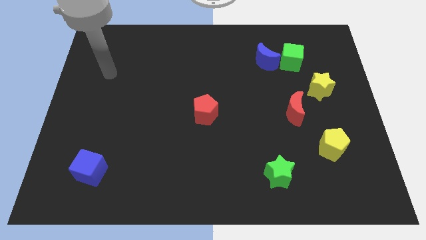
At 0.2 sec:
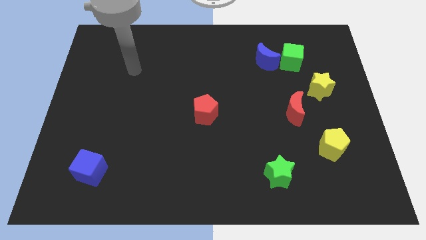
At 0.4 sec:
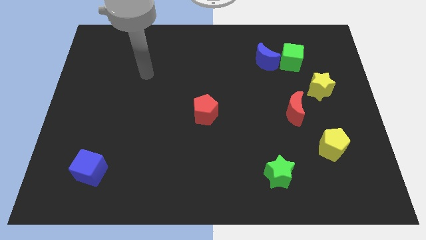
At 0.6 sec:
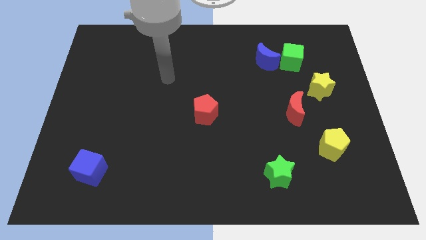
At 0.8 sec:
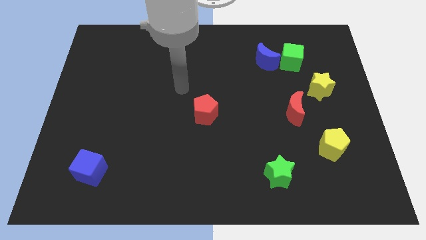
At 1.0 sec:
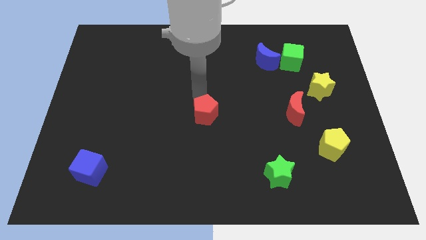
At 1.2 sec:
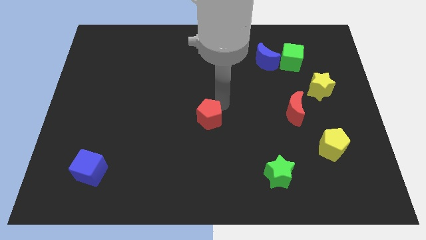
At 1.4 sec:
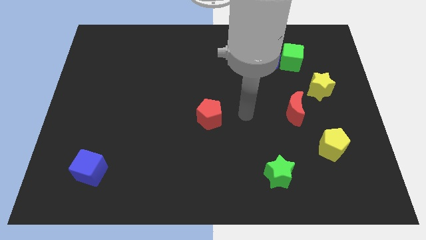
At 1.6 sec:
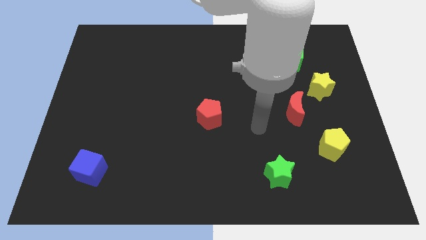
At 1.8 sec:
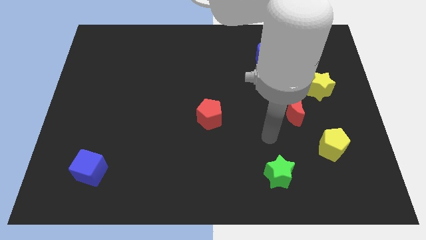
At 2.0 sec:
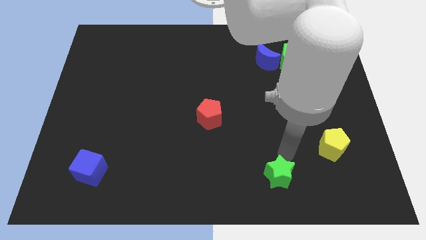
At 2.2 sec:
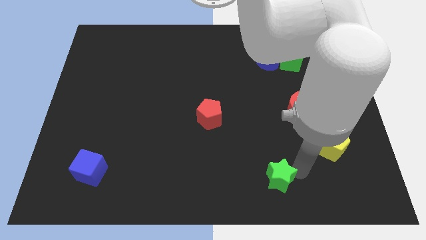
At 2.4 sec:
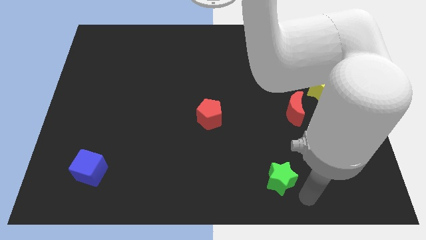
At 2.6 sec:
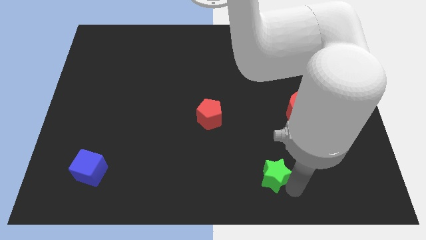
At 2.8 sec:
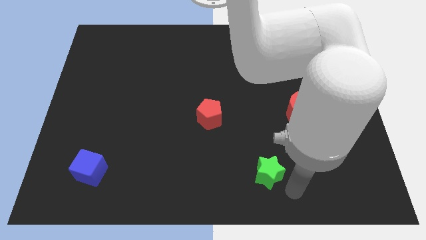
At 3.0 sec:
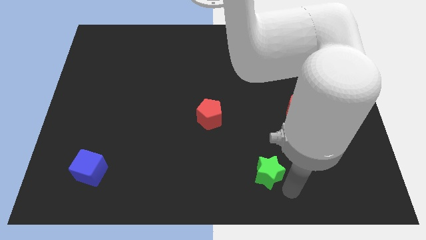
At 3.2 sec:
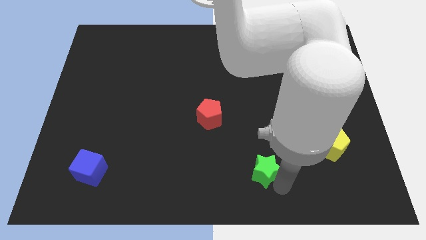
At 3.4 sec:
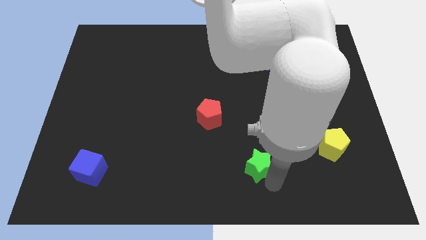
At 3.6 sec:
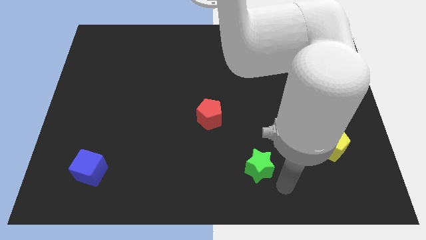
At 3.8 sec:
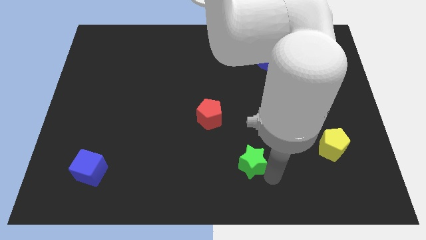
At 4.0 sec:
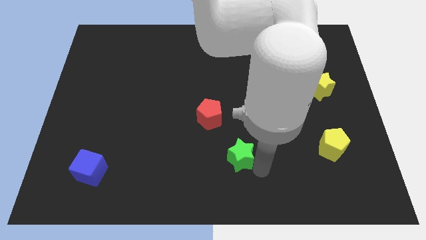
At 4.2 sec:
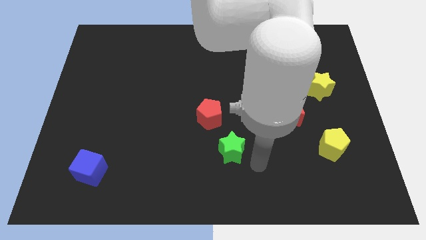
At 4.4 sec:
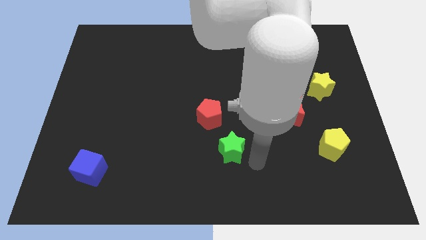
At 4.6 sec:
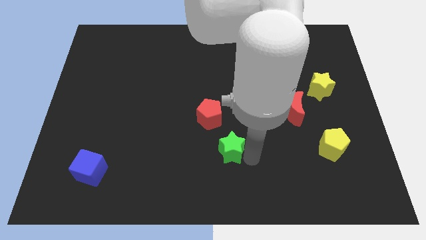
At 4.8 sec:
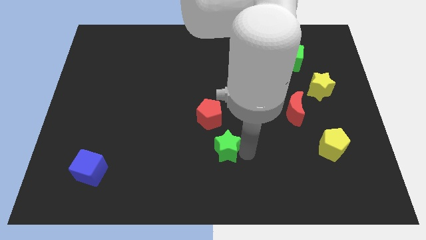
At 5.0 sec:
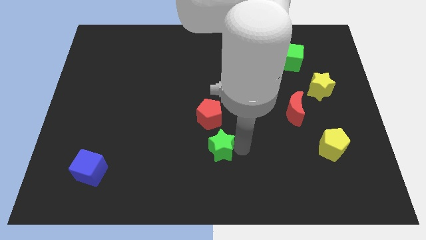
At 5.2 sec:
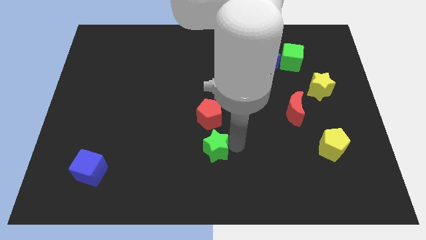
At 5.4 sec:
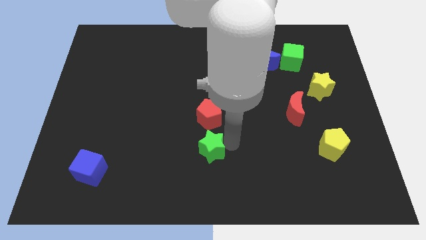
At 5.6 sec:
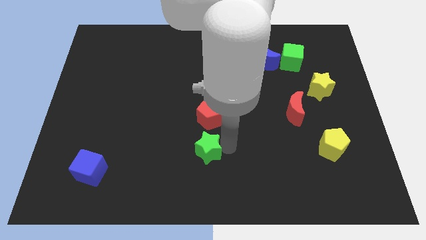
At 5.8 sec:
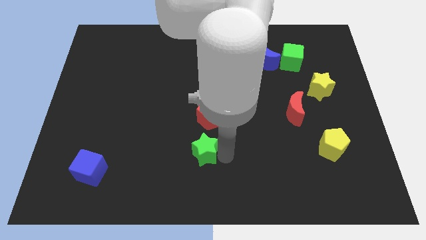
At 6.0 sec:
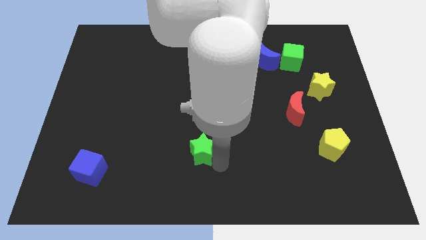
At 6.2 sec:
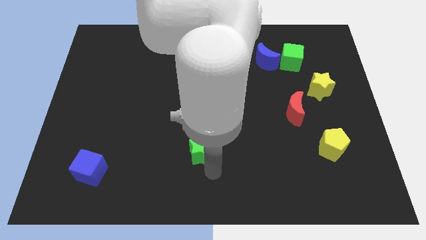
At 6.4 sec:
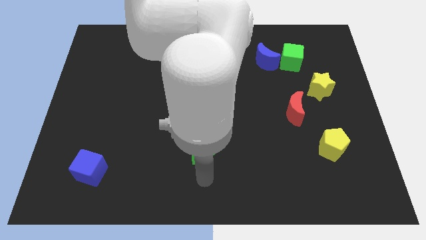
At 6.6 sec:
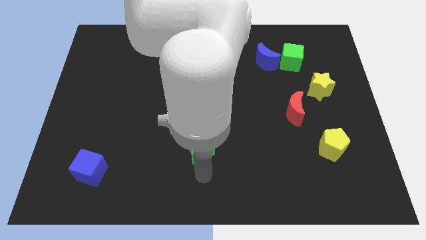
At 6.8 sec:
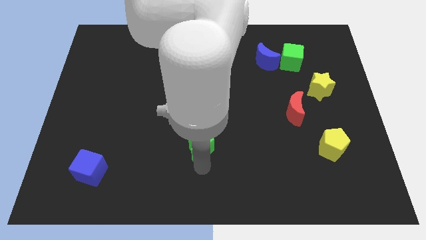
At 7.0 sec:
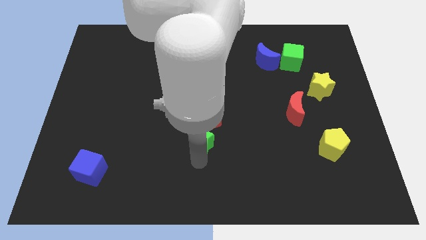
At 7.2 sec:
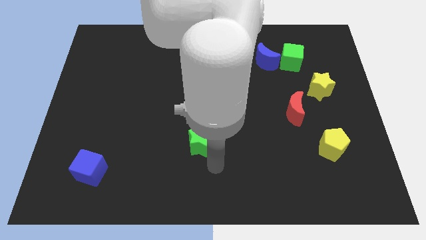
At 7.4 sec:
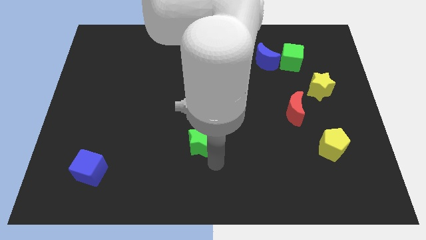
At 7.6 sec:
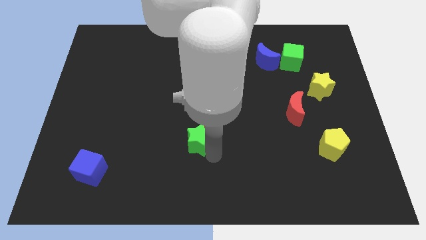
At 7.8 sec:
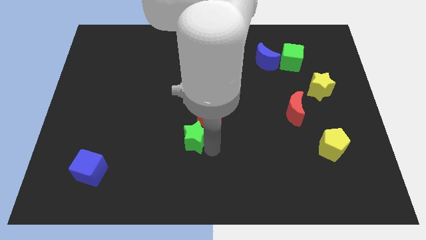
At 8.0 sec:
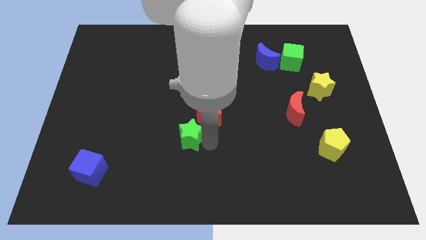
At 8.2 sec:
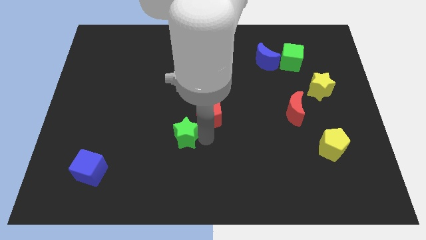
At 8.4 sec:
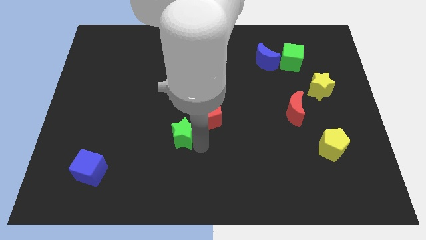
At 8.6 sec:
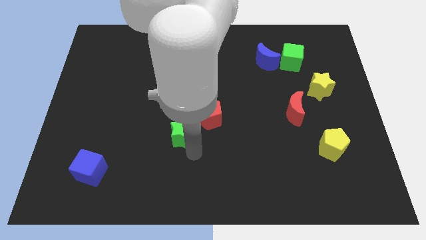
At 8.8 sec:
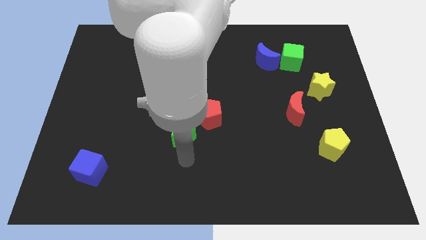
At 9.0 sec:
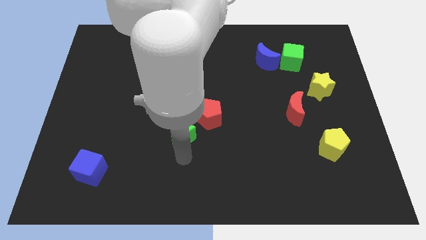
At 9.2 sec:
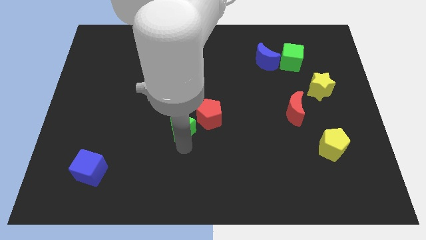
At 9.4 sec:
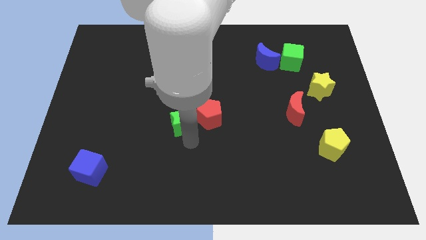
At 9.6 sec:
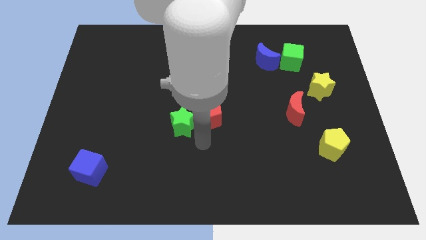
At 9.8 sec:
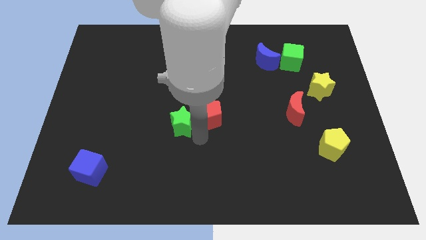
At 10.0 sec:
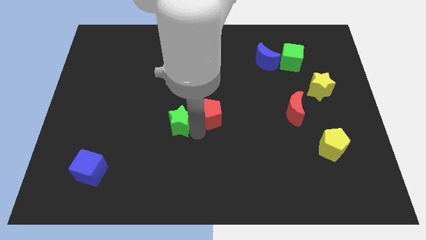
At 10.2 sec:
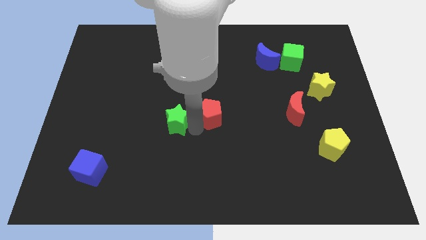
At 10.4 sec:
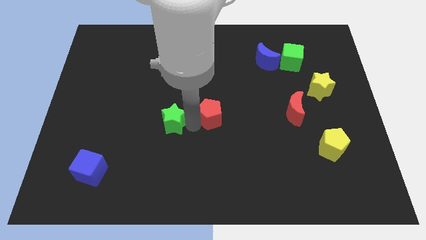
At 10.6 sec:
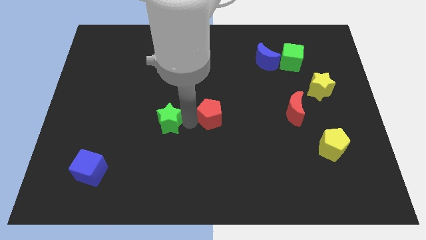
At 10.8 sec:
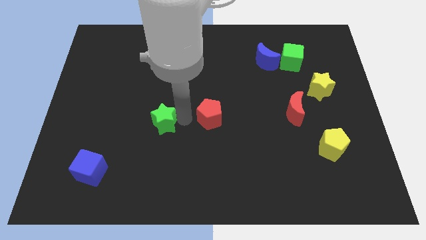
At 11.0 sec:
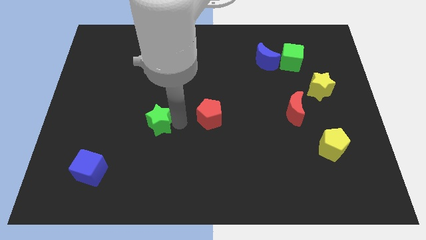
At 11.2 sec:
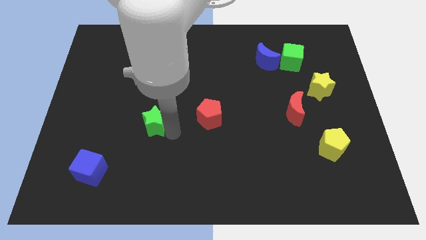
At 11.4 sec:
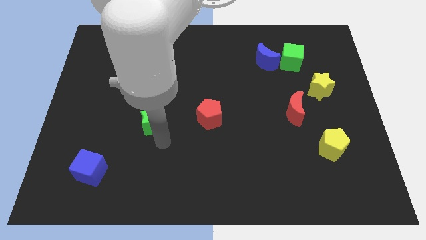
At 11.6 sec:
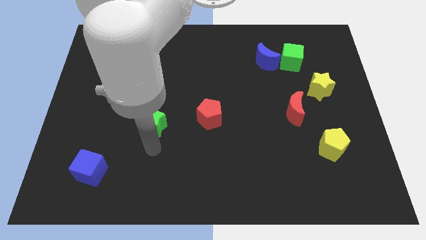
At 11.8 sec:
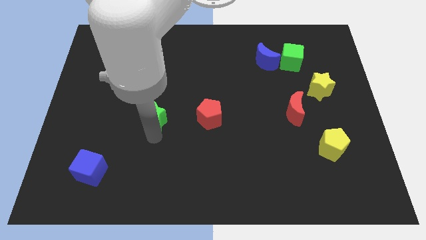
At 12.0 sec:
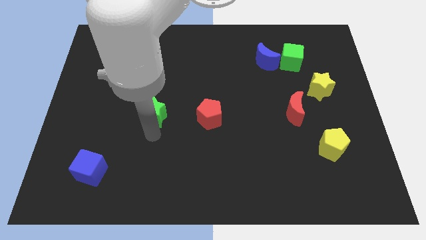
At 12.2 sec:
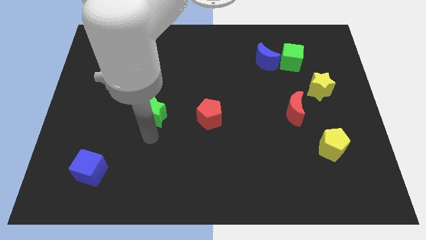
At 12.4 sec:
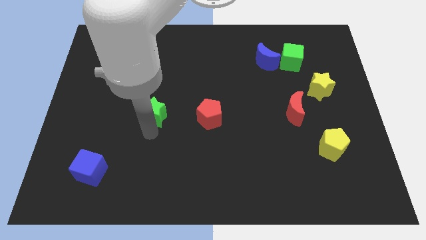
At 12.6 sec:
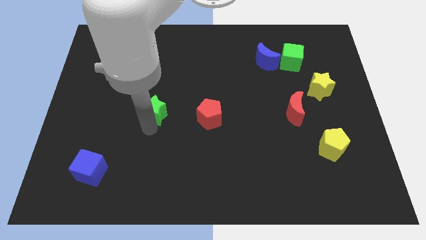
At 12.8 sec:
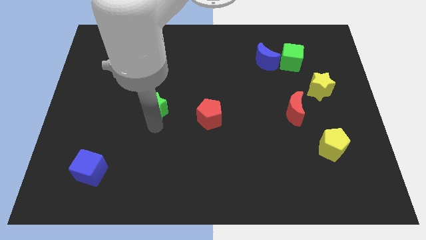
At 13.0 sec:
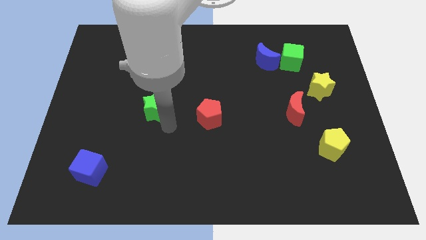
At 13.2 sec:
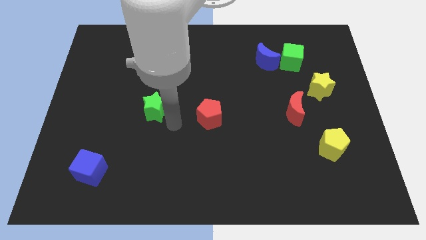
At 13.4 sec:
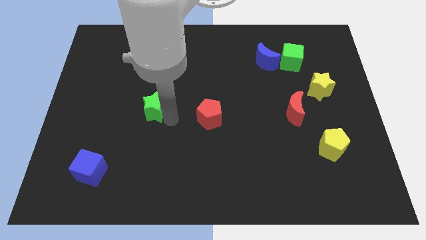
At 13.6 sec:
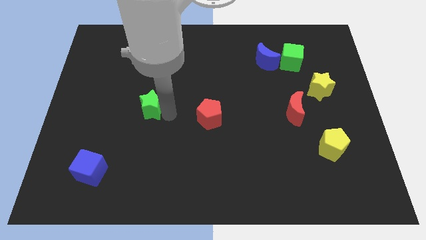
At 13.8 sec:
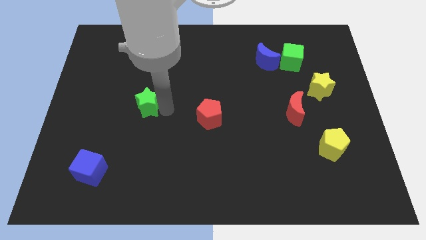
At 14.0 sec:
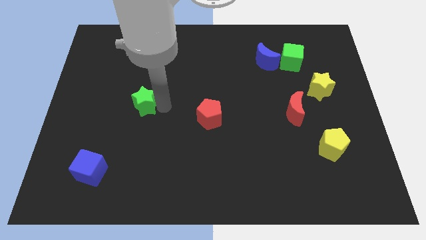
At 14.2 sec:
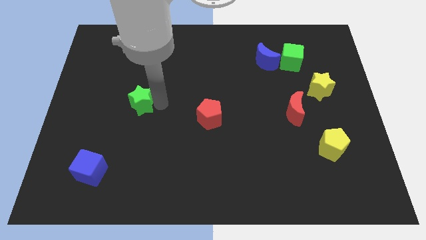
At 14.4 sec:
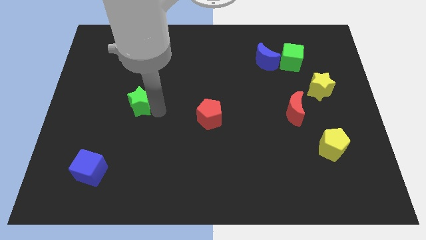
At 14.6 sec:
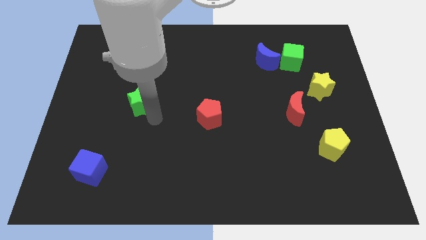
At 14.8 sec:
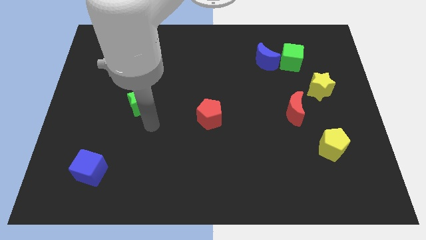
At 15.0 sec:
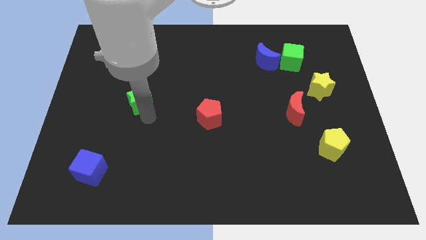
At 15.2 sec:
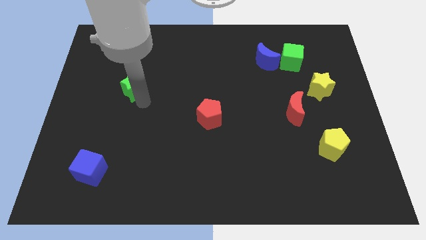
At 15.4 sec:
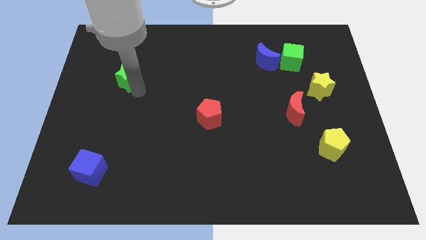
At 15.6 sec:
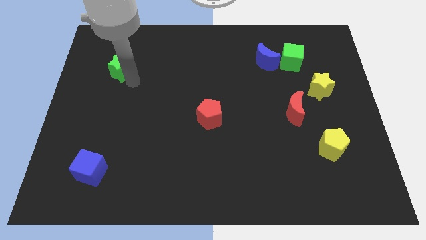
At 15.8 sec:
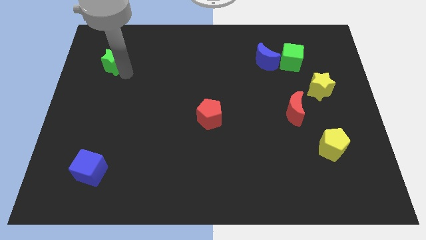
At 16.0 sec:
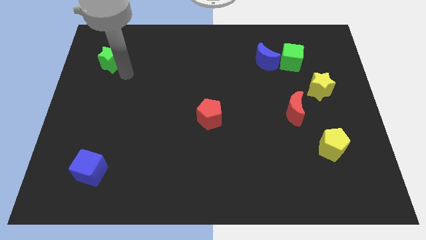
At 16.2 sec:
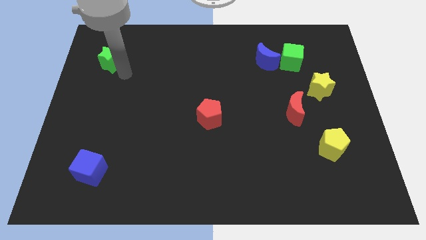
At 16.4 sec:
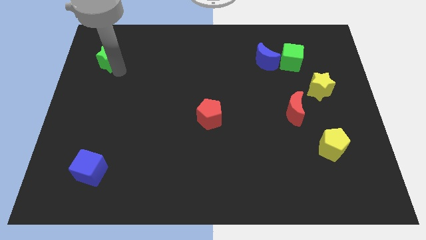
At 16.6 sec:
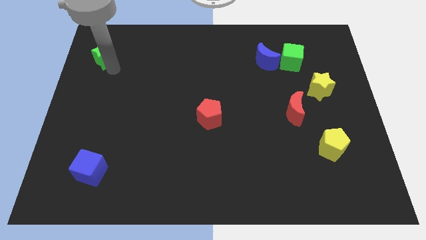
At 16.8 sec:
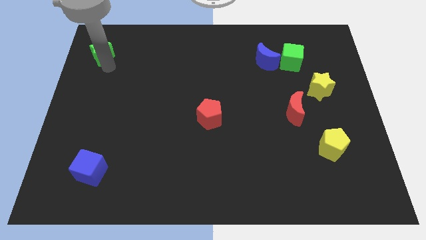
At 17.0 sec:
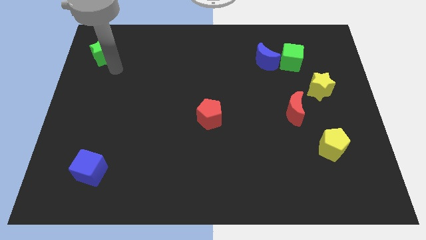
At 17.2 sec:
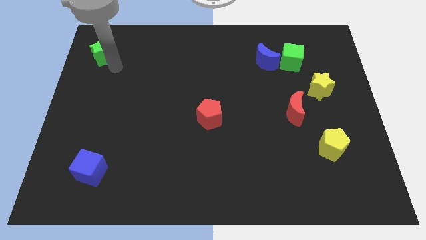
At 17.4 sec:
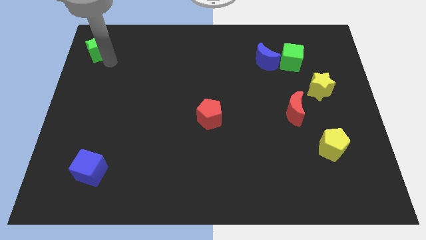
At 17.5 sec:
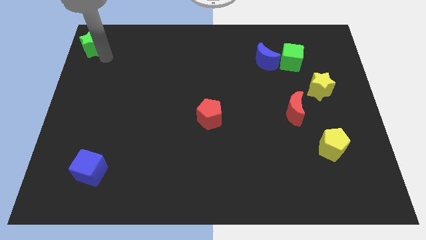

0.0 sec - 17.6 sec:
put the green star to the top left of the board
